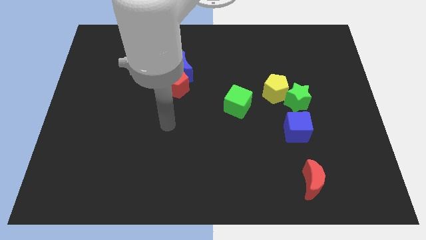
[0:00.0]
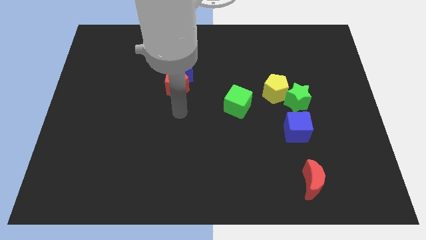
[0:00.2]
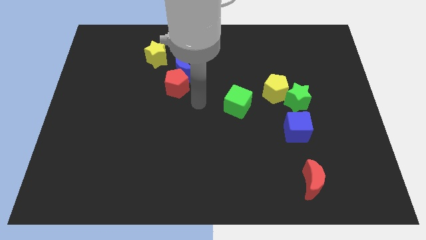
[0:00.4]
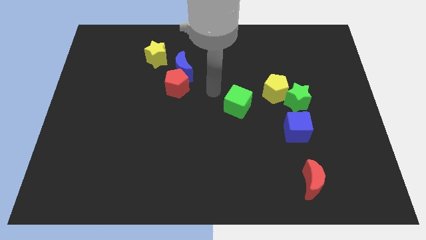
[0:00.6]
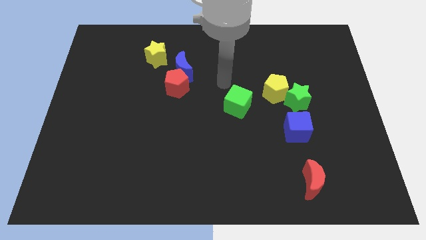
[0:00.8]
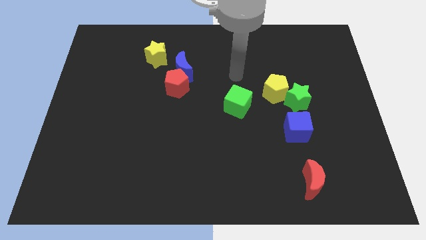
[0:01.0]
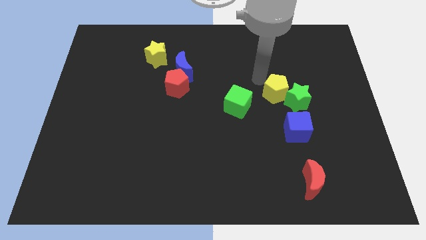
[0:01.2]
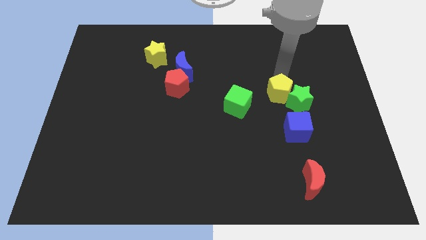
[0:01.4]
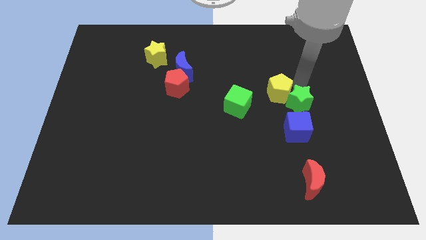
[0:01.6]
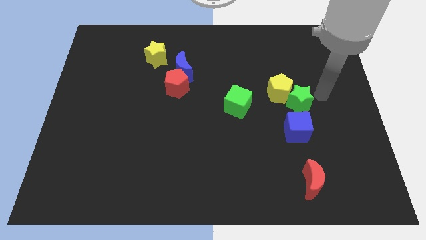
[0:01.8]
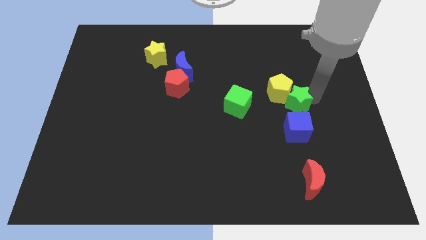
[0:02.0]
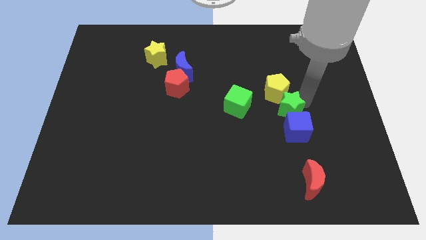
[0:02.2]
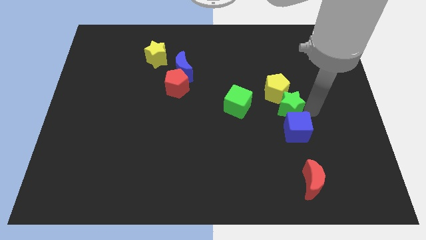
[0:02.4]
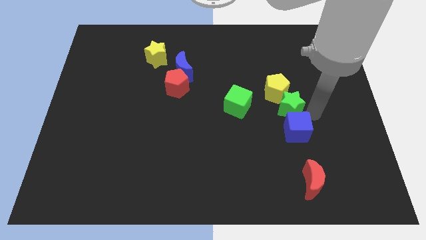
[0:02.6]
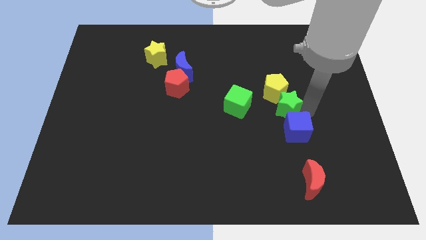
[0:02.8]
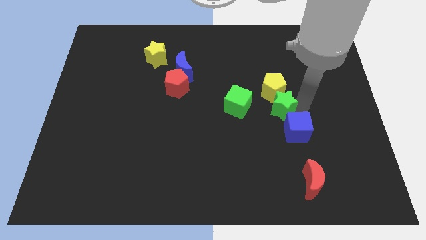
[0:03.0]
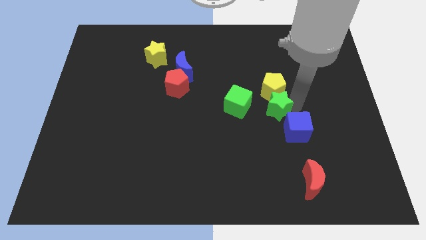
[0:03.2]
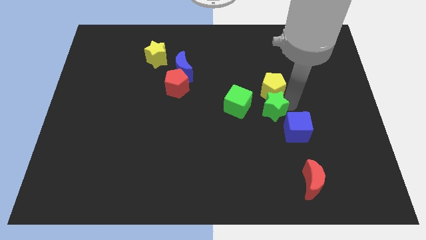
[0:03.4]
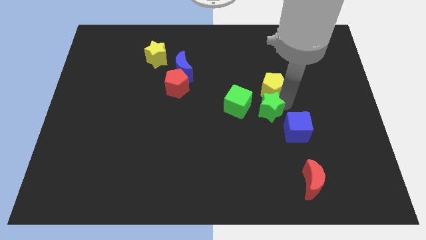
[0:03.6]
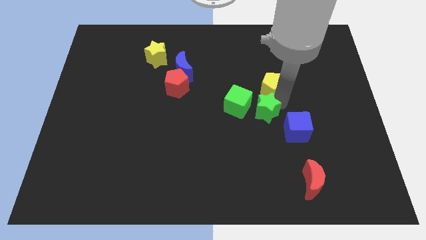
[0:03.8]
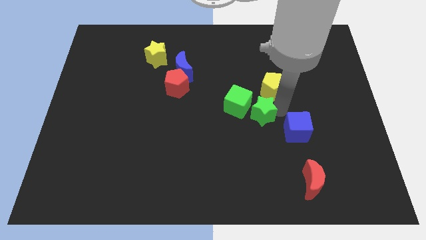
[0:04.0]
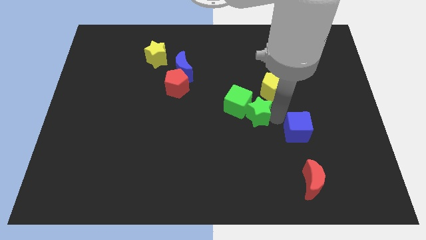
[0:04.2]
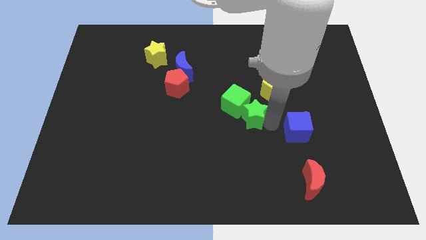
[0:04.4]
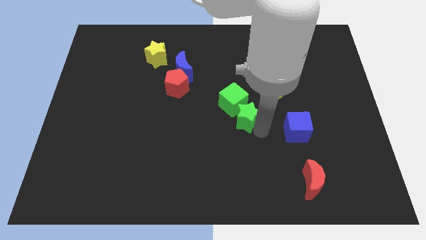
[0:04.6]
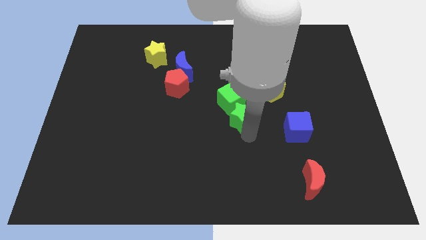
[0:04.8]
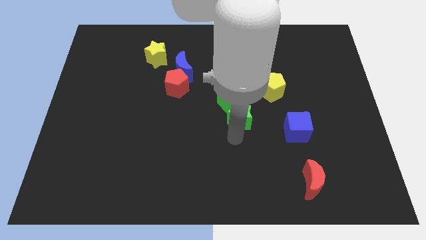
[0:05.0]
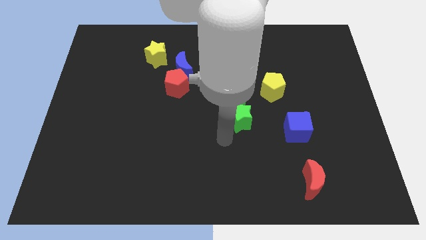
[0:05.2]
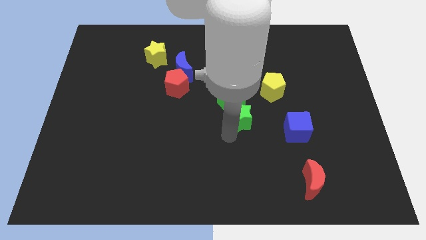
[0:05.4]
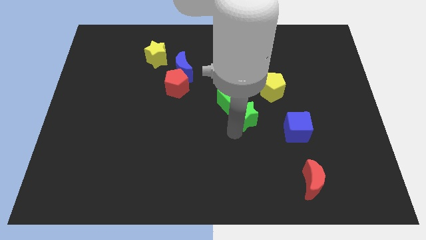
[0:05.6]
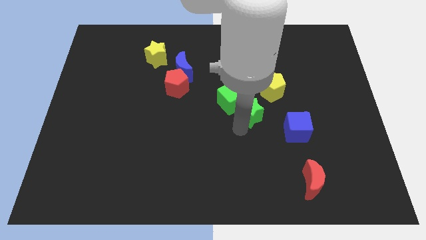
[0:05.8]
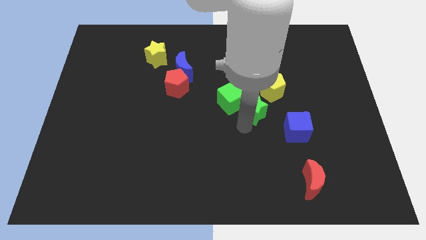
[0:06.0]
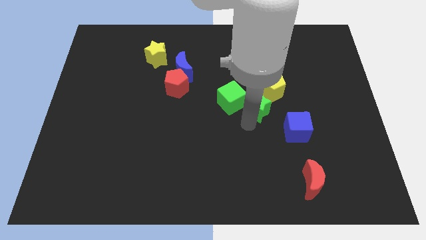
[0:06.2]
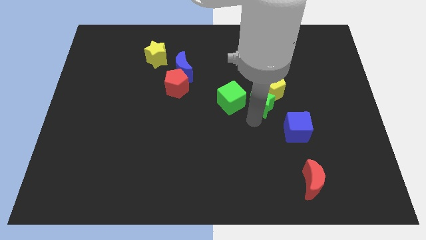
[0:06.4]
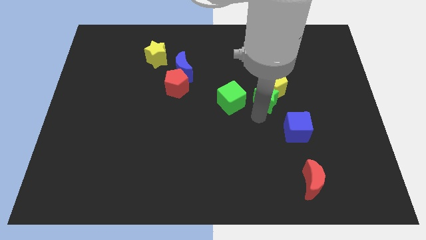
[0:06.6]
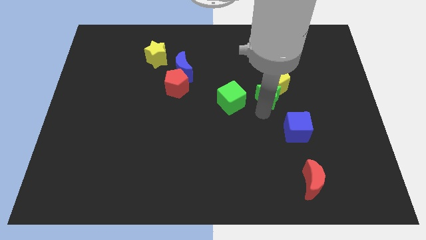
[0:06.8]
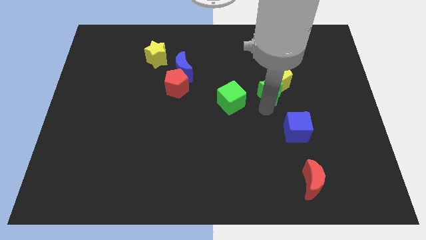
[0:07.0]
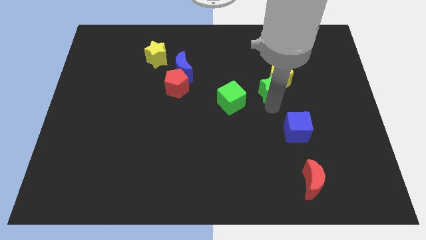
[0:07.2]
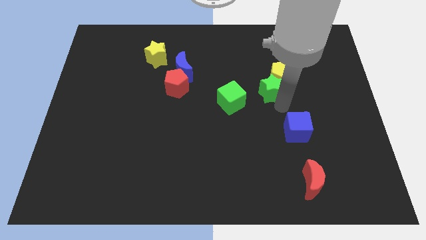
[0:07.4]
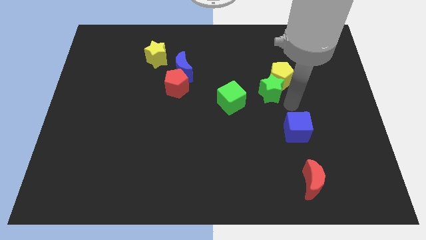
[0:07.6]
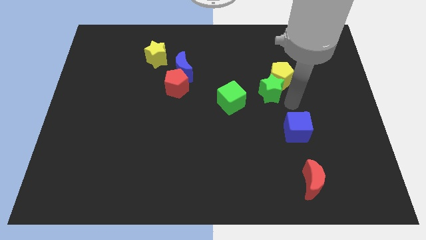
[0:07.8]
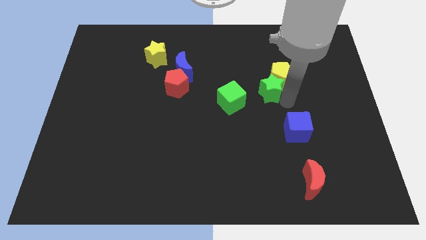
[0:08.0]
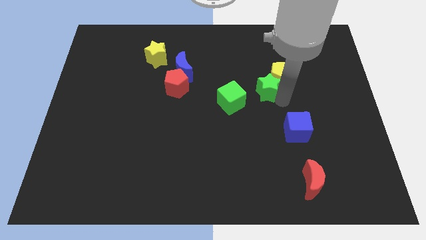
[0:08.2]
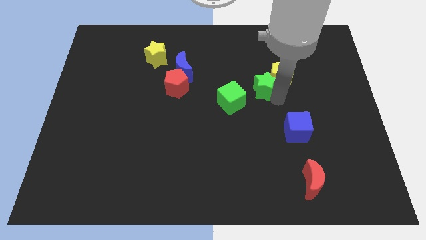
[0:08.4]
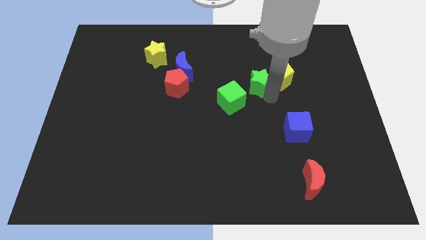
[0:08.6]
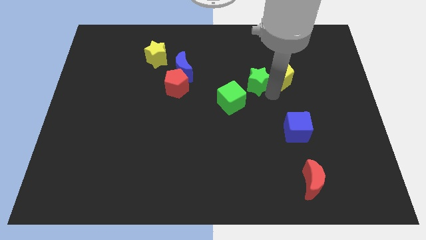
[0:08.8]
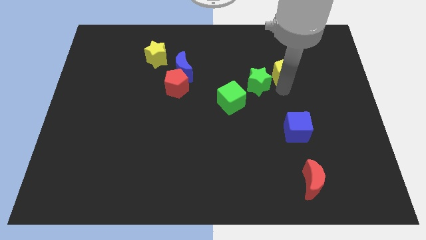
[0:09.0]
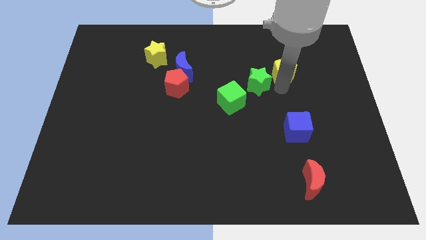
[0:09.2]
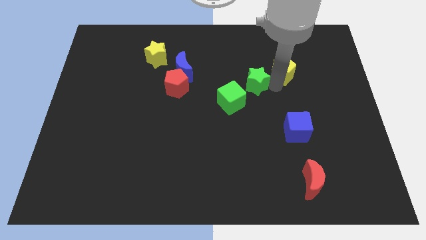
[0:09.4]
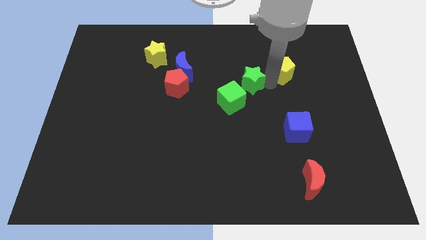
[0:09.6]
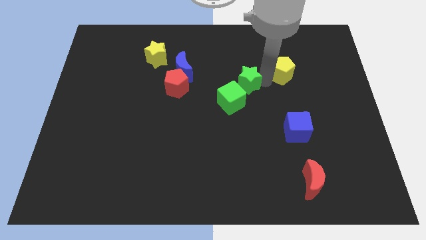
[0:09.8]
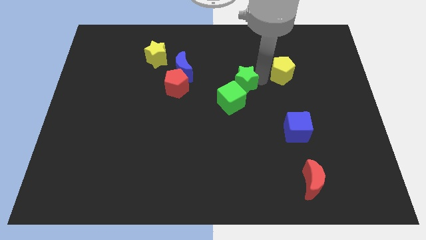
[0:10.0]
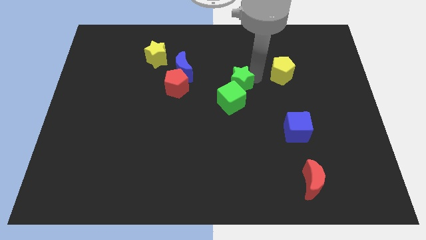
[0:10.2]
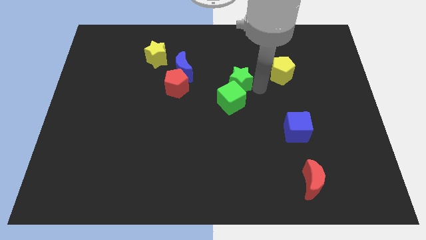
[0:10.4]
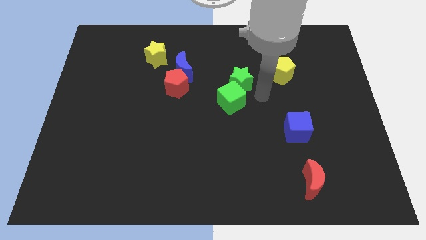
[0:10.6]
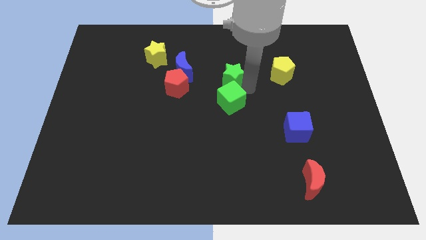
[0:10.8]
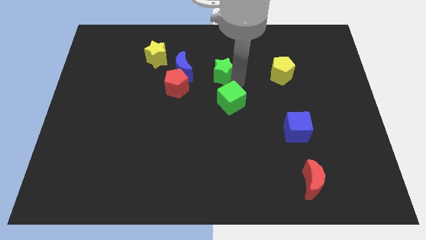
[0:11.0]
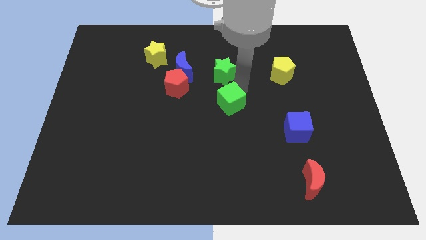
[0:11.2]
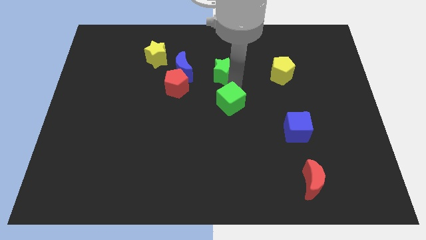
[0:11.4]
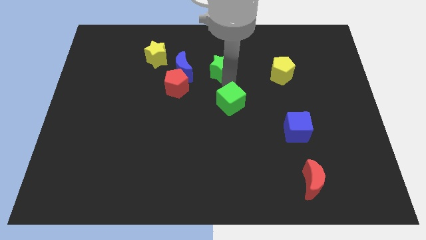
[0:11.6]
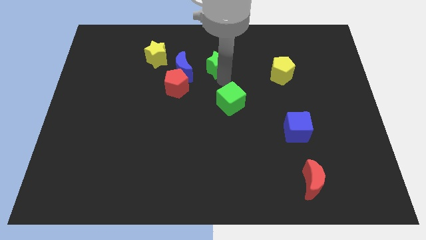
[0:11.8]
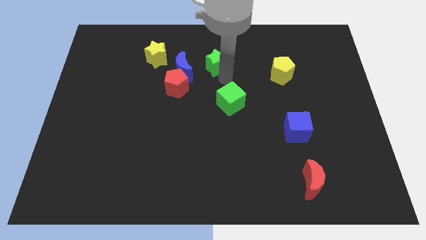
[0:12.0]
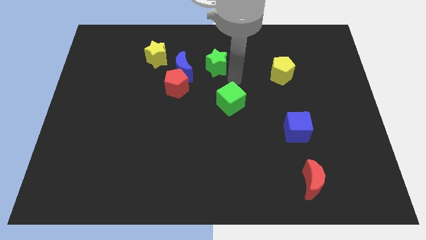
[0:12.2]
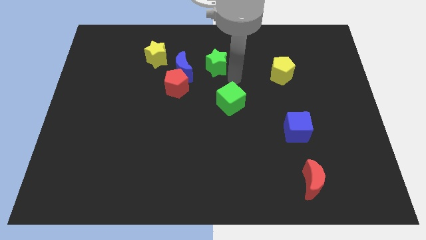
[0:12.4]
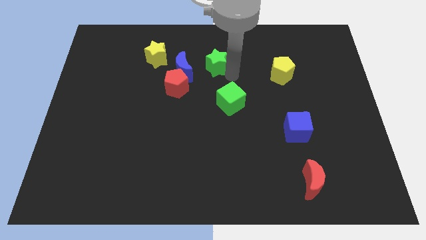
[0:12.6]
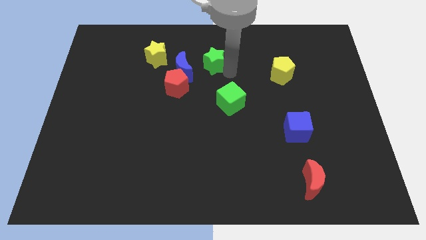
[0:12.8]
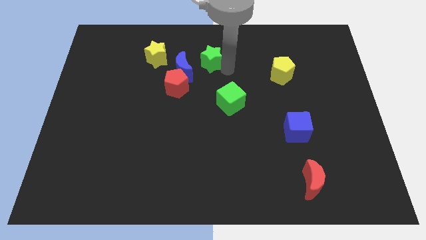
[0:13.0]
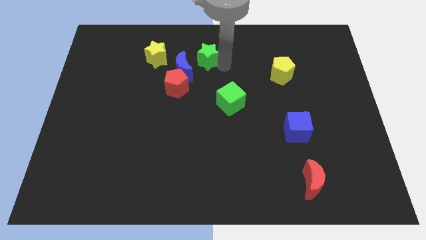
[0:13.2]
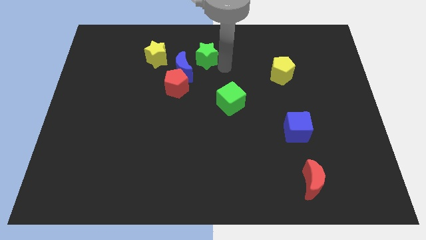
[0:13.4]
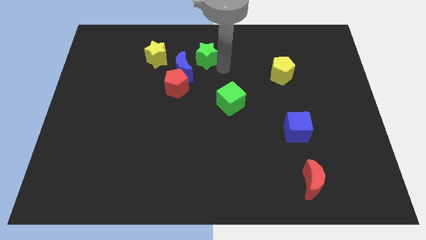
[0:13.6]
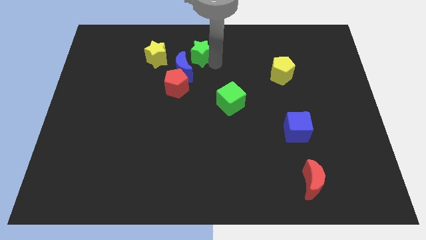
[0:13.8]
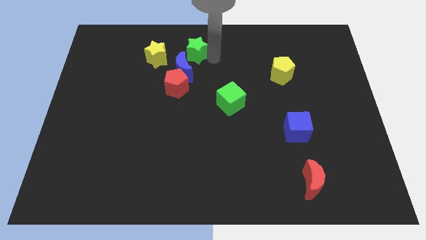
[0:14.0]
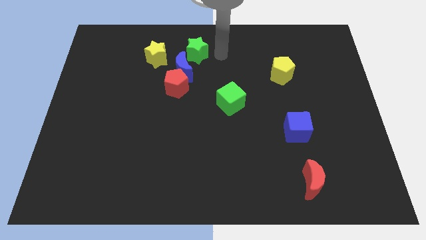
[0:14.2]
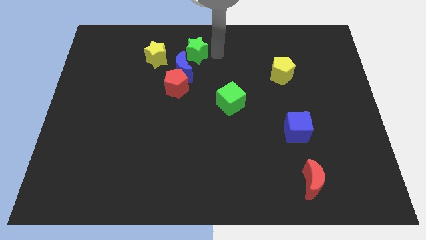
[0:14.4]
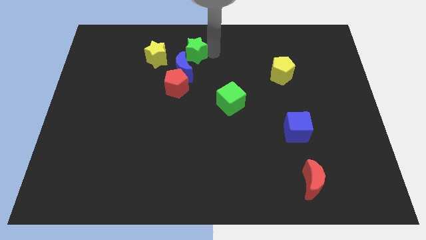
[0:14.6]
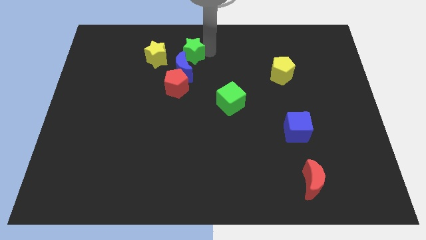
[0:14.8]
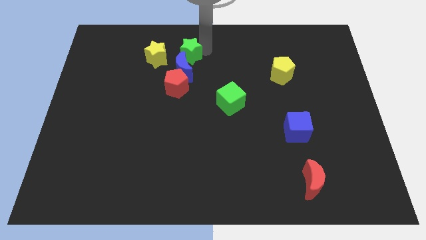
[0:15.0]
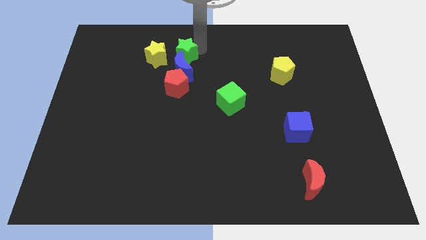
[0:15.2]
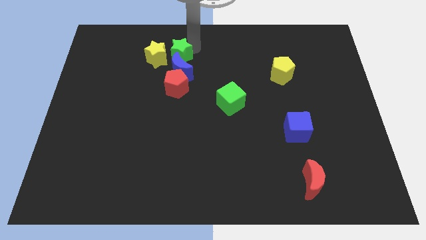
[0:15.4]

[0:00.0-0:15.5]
slide the green star to the yellow star
